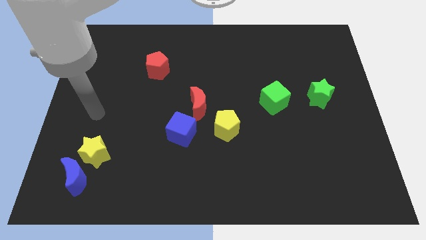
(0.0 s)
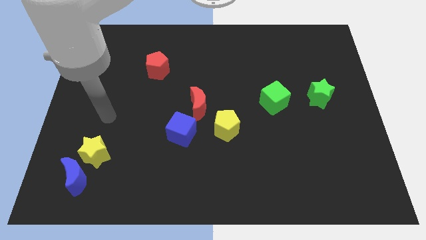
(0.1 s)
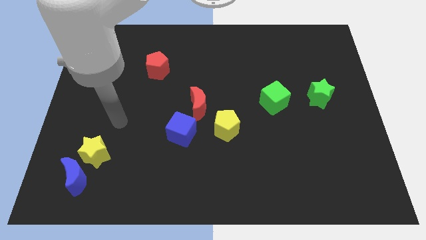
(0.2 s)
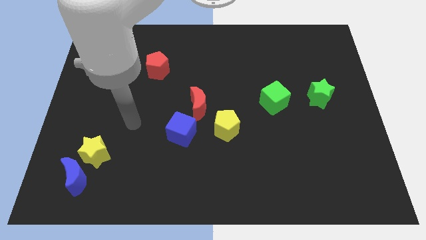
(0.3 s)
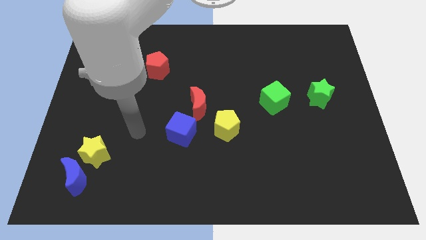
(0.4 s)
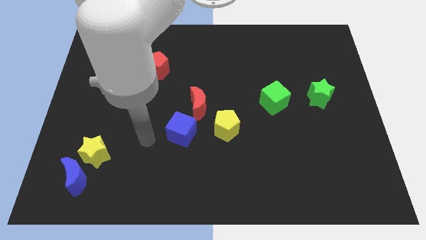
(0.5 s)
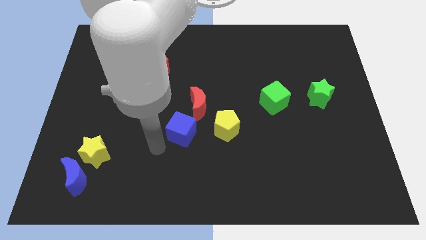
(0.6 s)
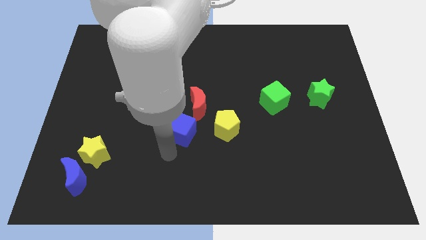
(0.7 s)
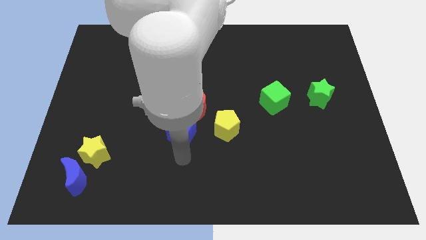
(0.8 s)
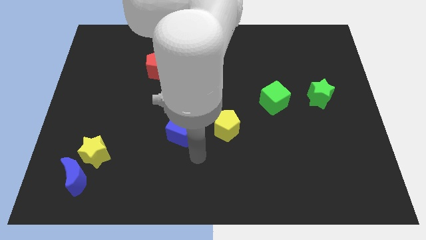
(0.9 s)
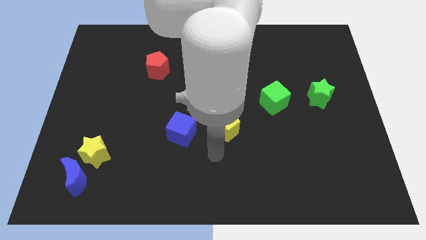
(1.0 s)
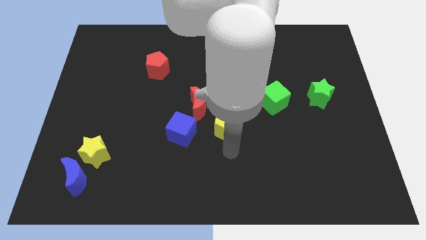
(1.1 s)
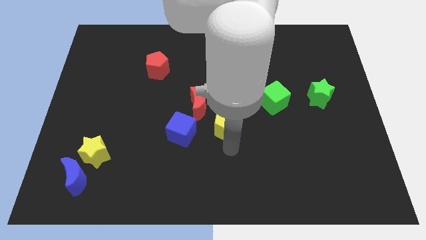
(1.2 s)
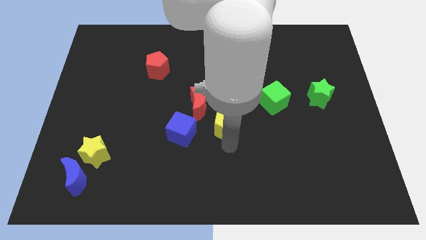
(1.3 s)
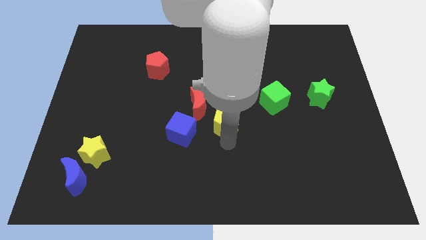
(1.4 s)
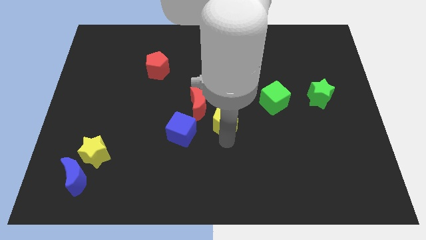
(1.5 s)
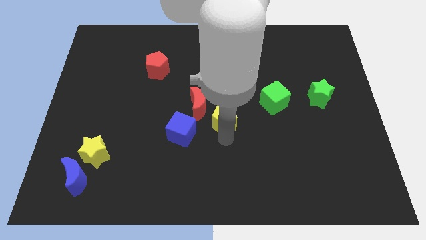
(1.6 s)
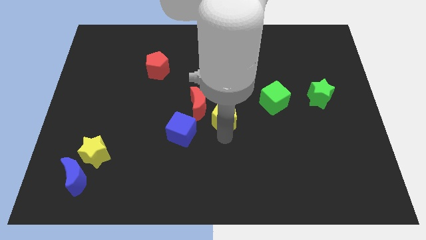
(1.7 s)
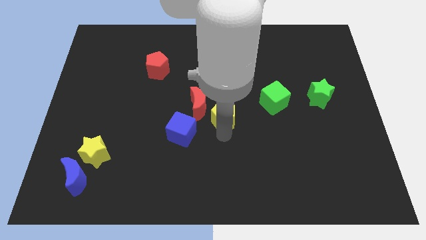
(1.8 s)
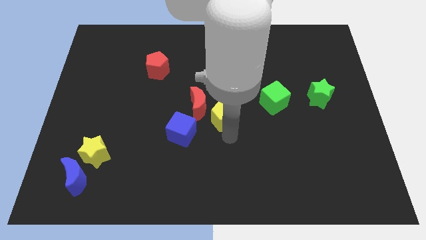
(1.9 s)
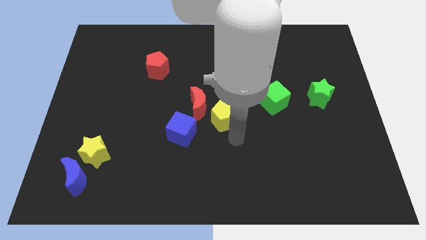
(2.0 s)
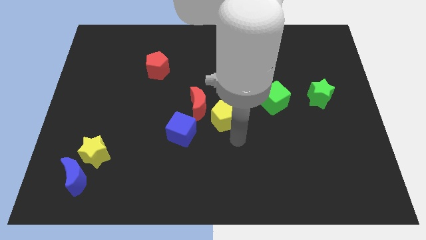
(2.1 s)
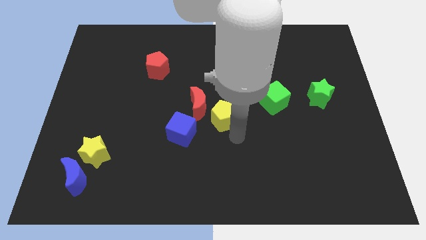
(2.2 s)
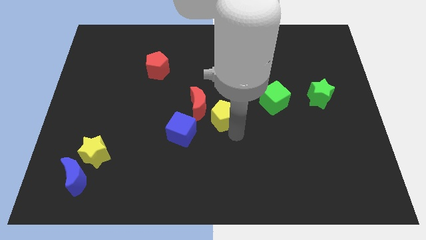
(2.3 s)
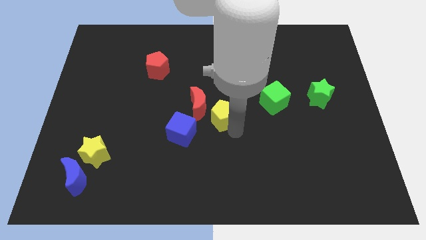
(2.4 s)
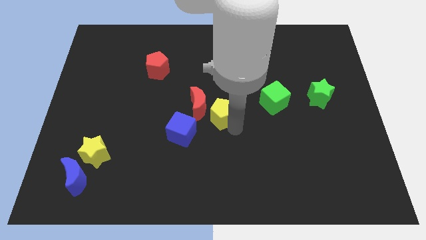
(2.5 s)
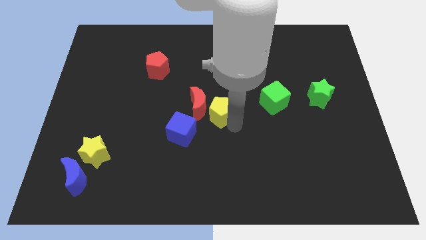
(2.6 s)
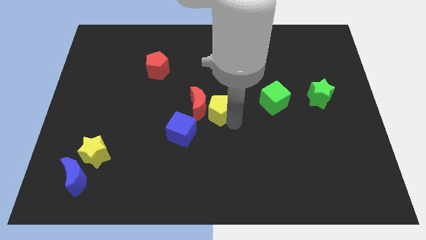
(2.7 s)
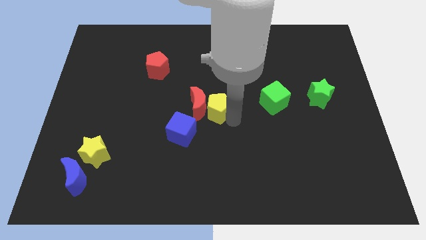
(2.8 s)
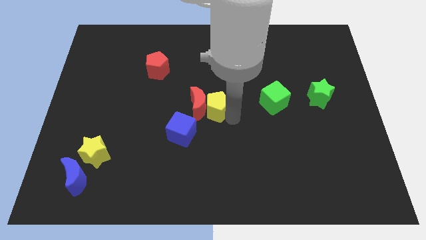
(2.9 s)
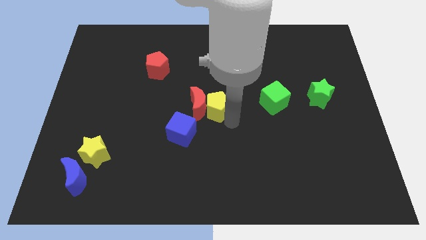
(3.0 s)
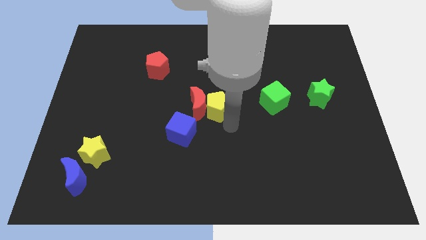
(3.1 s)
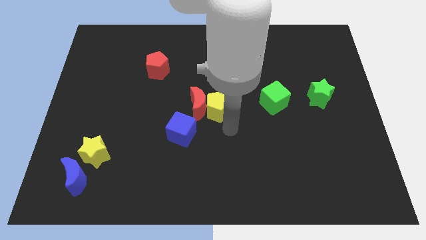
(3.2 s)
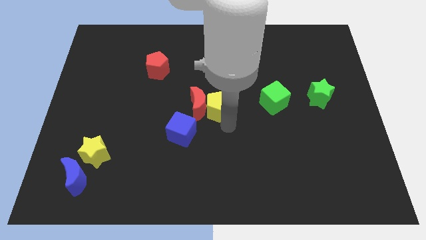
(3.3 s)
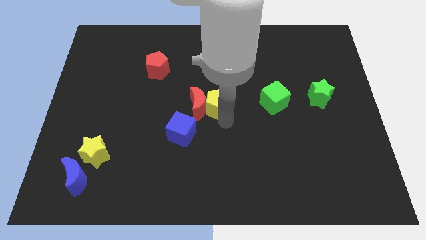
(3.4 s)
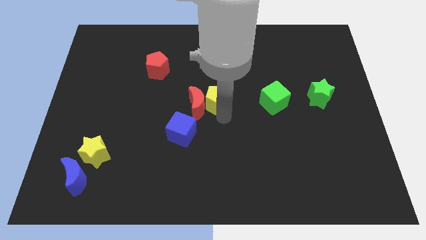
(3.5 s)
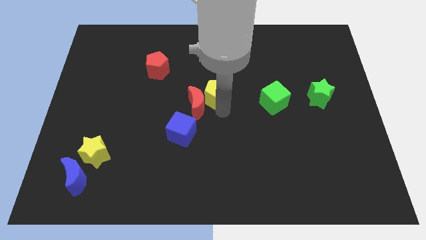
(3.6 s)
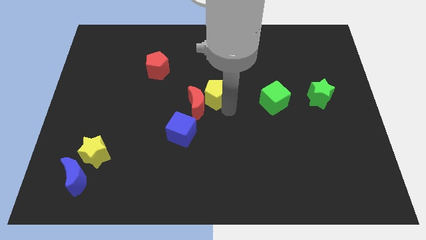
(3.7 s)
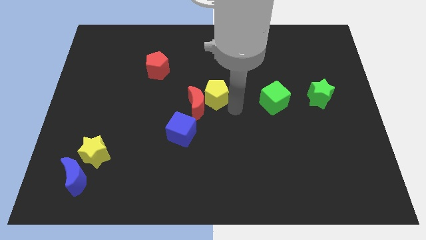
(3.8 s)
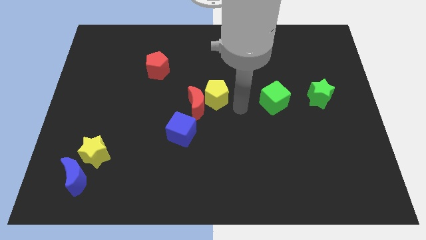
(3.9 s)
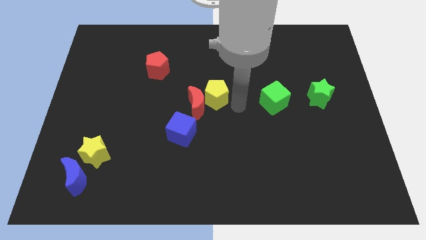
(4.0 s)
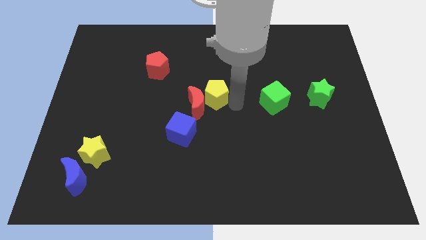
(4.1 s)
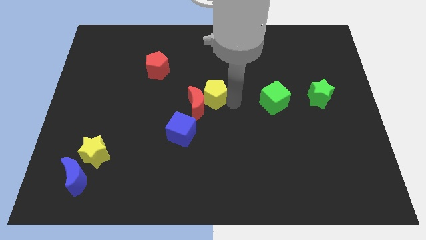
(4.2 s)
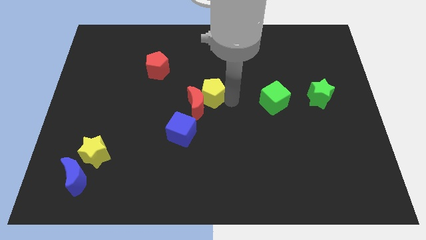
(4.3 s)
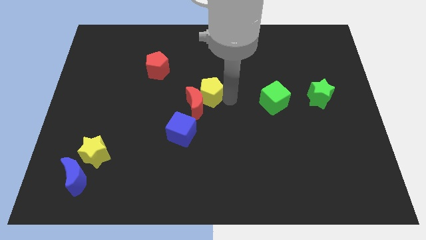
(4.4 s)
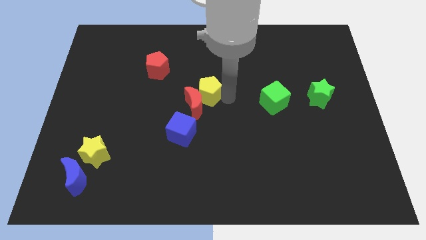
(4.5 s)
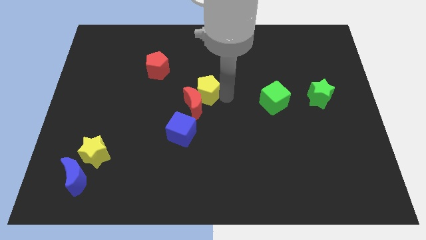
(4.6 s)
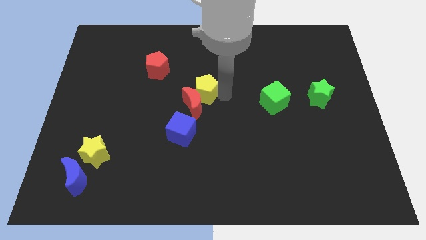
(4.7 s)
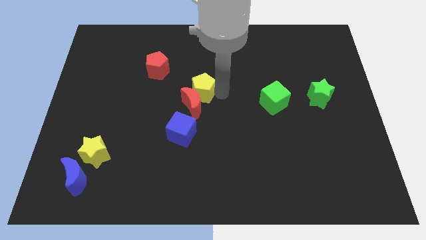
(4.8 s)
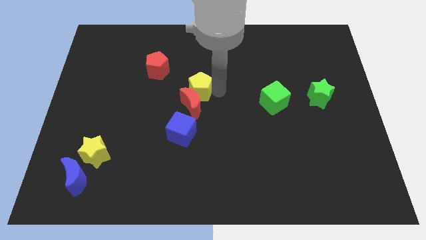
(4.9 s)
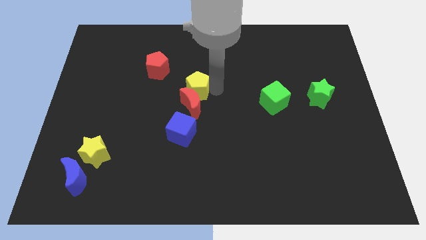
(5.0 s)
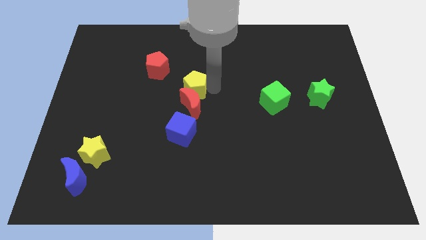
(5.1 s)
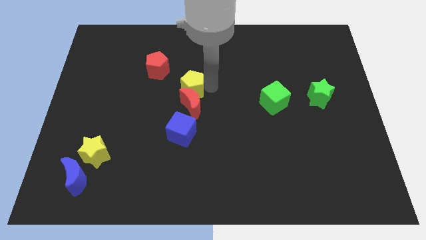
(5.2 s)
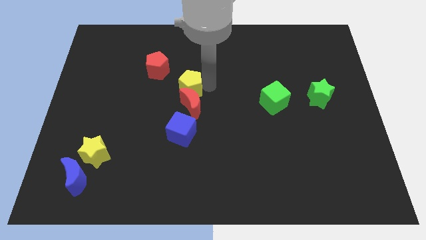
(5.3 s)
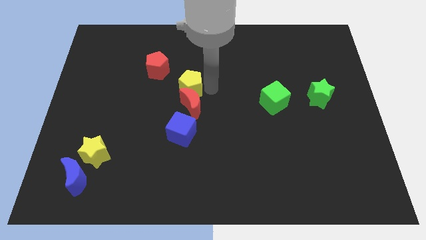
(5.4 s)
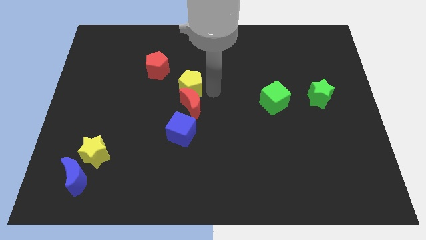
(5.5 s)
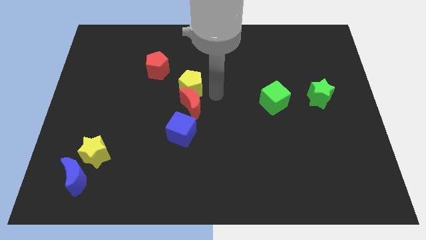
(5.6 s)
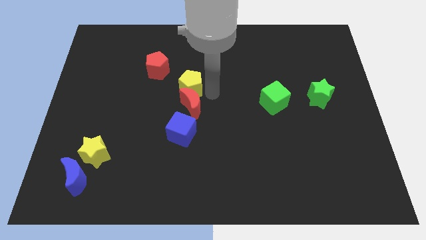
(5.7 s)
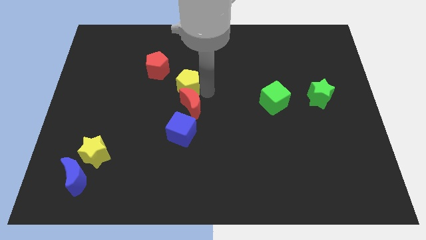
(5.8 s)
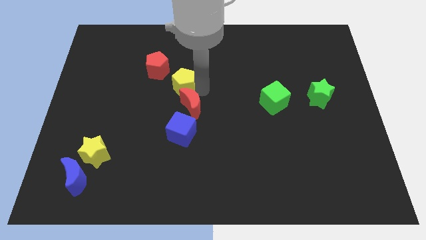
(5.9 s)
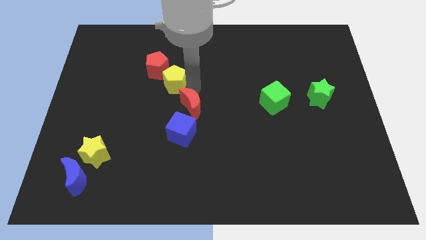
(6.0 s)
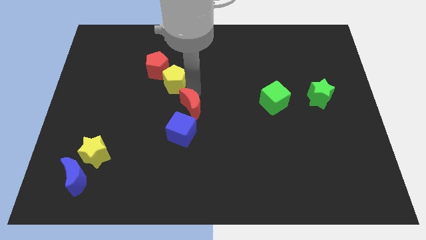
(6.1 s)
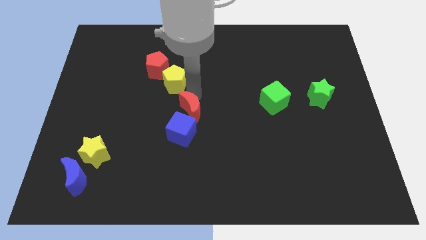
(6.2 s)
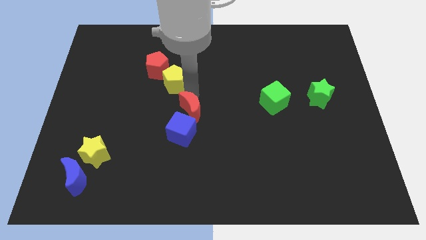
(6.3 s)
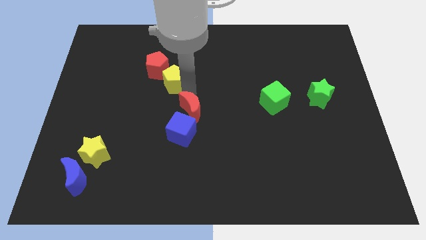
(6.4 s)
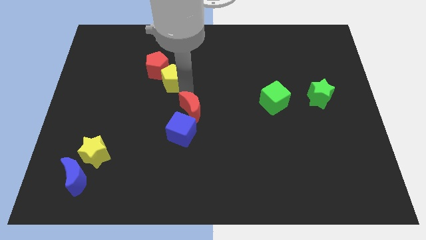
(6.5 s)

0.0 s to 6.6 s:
move the yellow pentagon to the red pentagon
